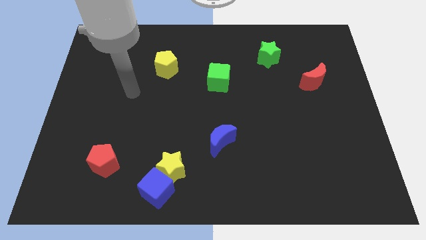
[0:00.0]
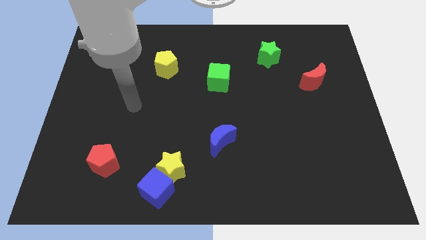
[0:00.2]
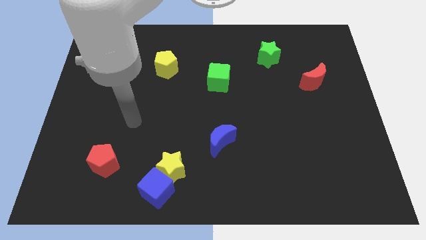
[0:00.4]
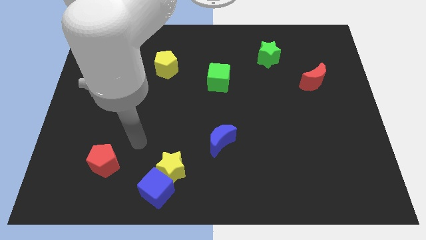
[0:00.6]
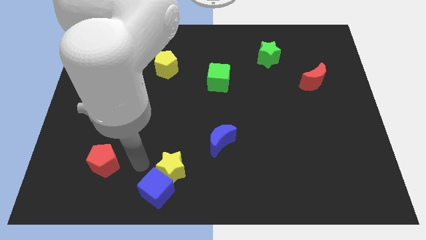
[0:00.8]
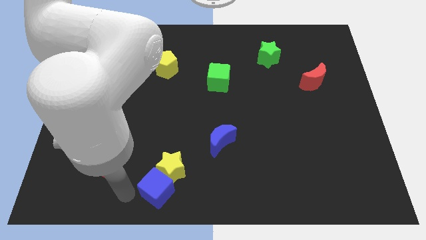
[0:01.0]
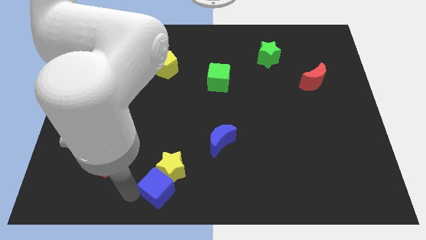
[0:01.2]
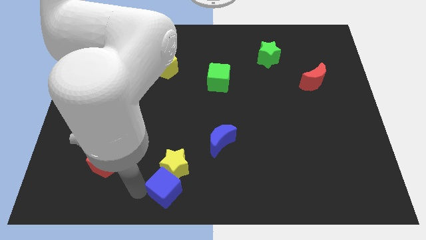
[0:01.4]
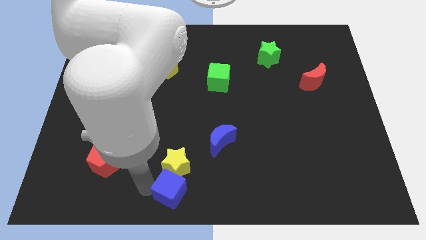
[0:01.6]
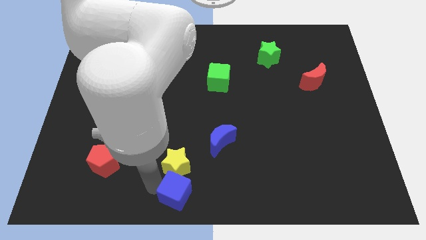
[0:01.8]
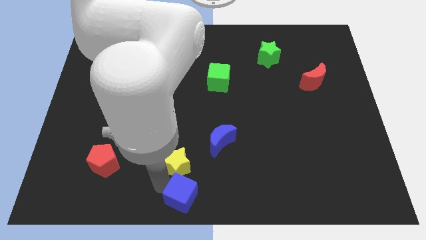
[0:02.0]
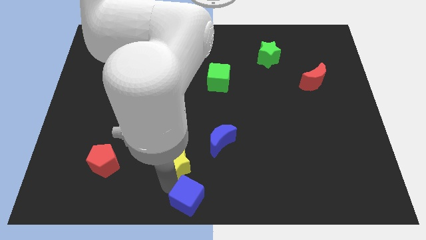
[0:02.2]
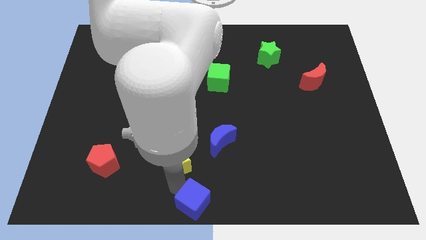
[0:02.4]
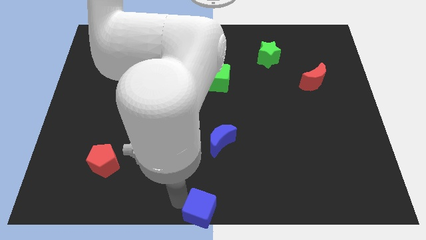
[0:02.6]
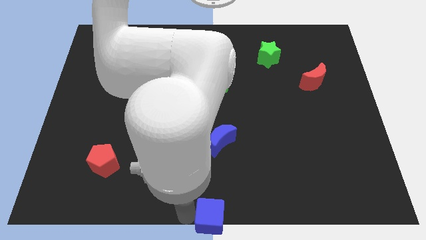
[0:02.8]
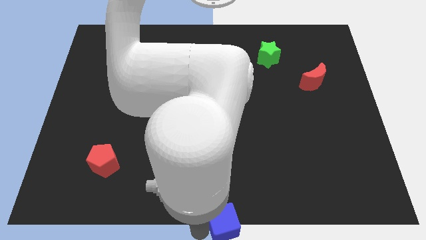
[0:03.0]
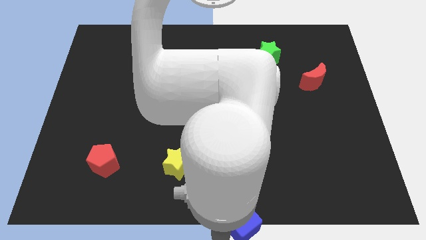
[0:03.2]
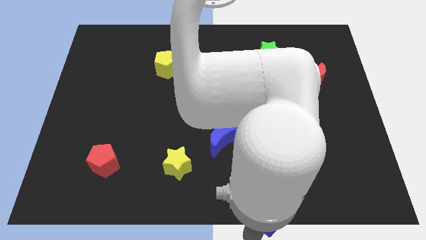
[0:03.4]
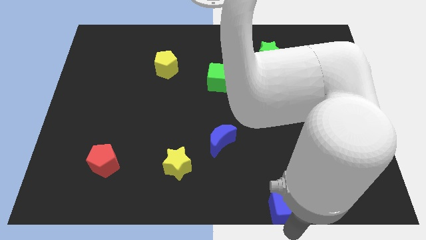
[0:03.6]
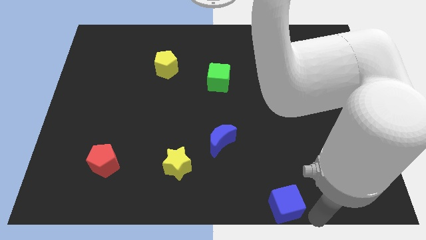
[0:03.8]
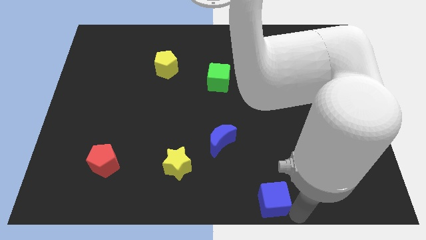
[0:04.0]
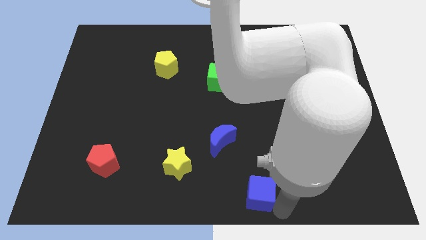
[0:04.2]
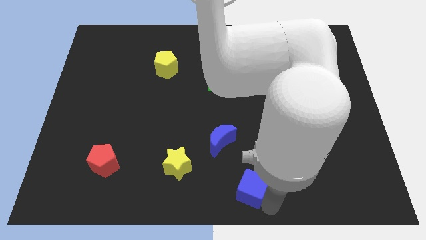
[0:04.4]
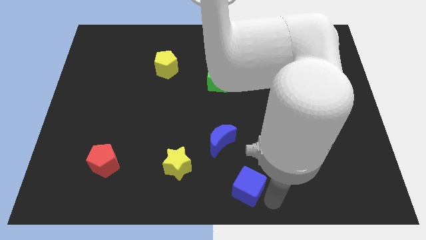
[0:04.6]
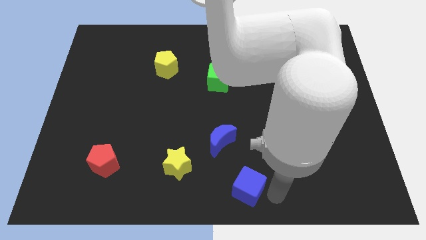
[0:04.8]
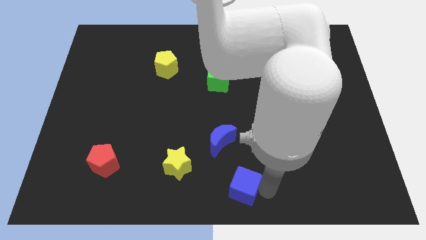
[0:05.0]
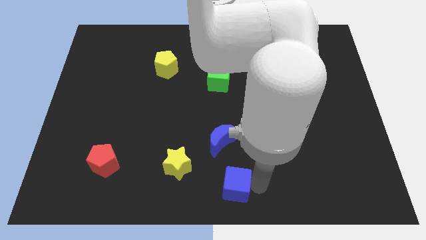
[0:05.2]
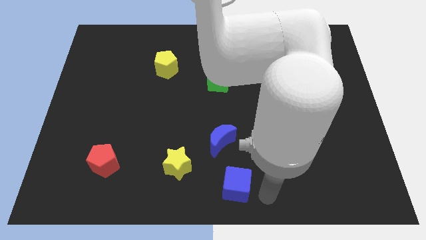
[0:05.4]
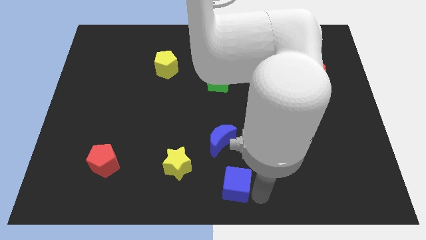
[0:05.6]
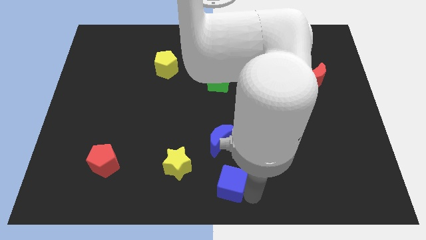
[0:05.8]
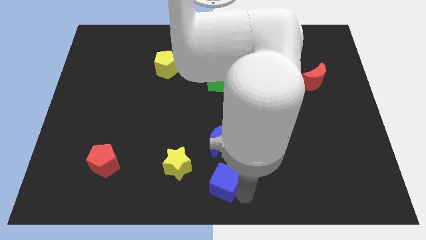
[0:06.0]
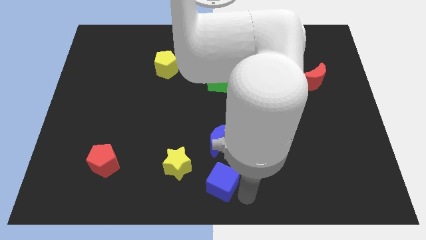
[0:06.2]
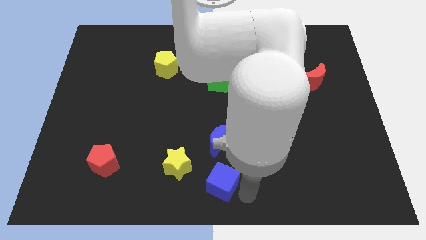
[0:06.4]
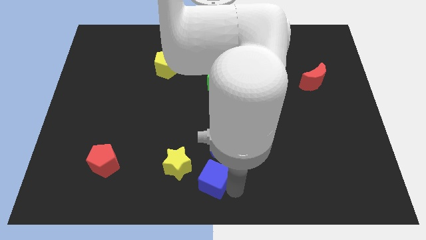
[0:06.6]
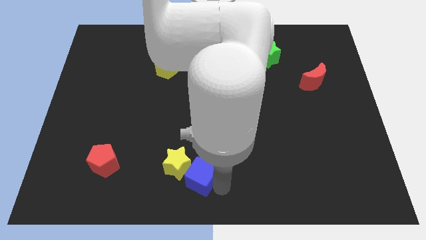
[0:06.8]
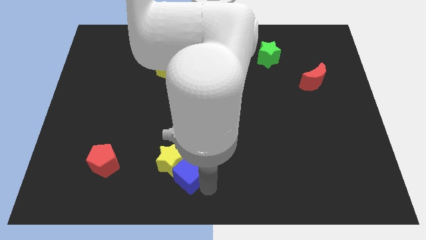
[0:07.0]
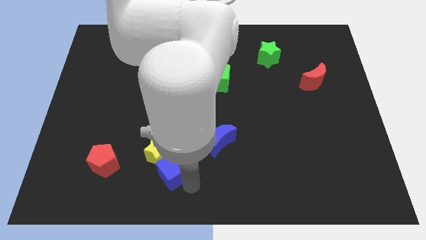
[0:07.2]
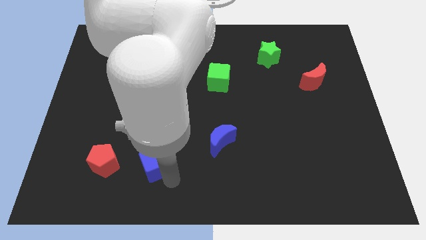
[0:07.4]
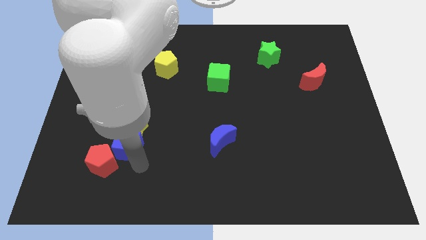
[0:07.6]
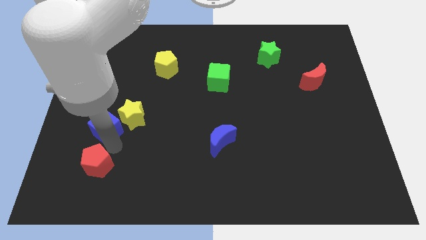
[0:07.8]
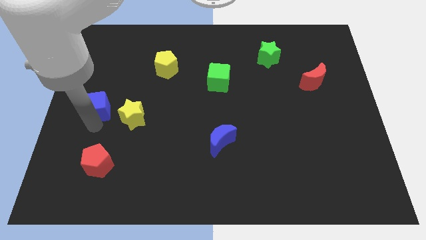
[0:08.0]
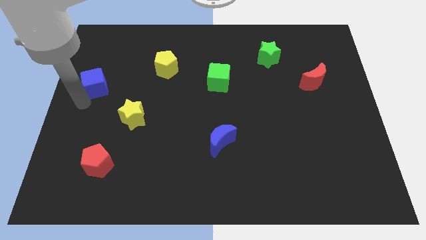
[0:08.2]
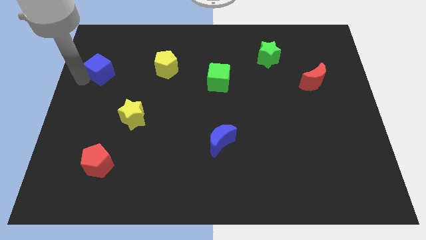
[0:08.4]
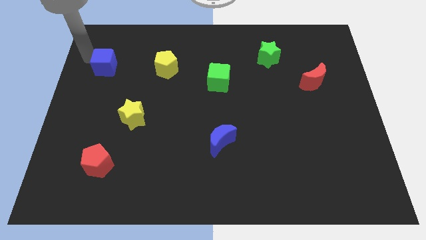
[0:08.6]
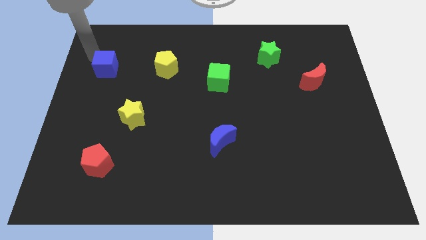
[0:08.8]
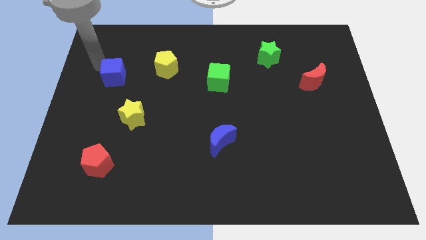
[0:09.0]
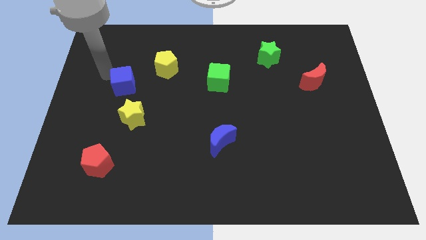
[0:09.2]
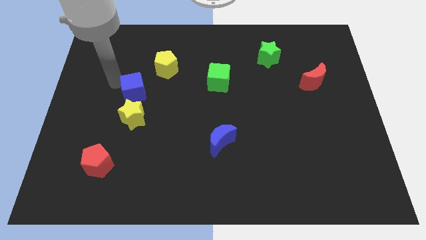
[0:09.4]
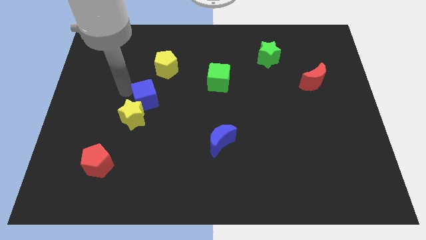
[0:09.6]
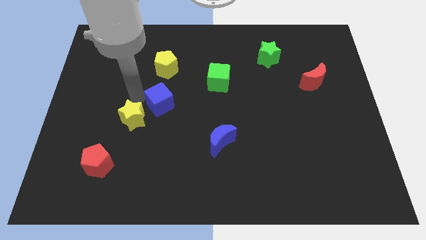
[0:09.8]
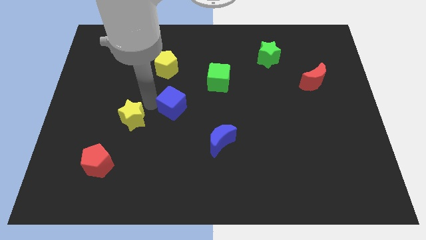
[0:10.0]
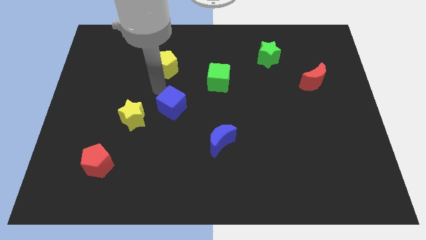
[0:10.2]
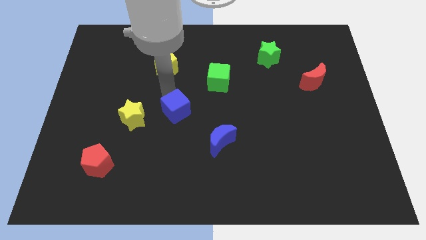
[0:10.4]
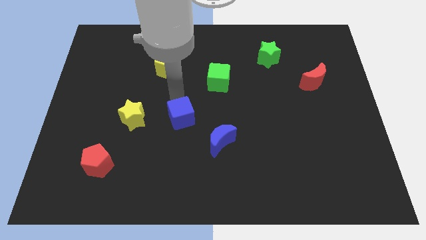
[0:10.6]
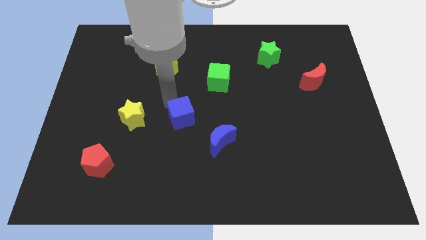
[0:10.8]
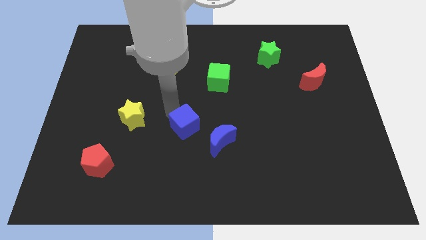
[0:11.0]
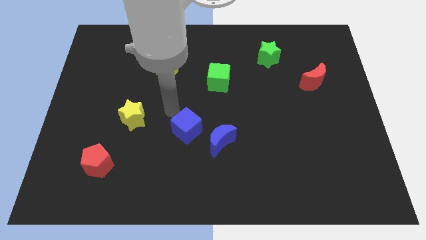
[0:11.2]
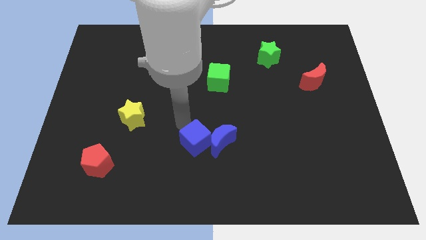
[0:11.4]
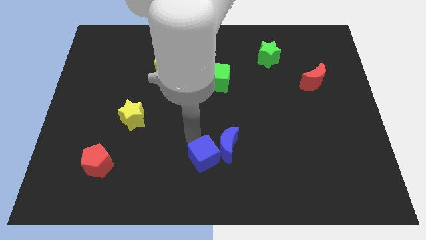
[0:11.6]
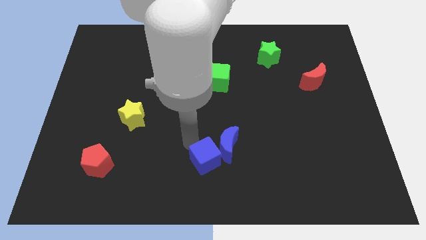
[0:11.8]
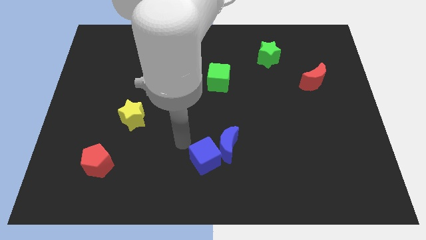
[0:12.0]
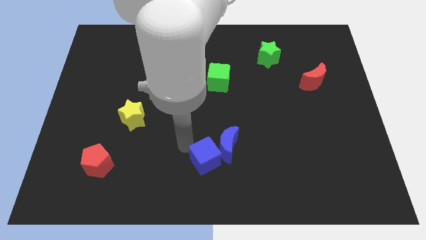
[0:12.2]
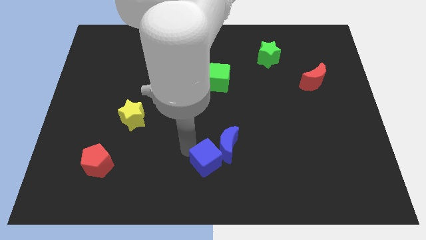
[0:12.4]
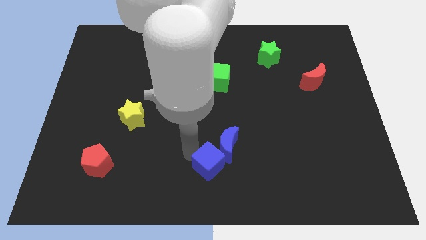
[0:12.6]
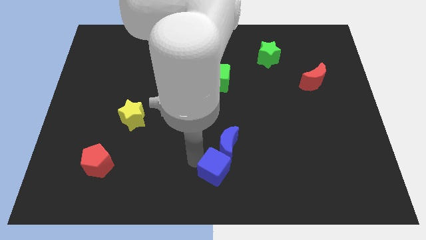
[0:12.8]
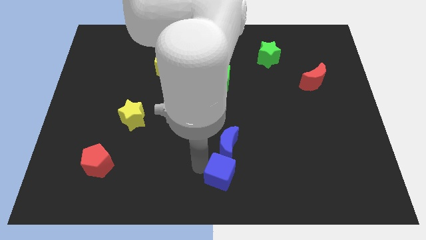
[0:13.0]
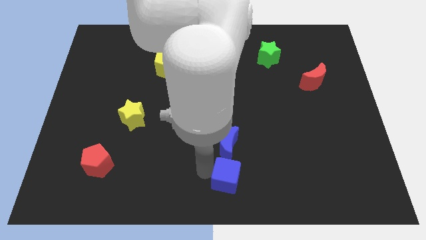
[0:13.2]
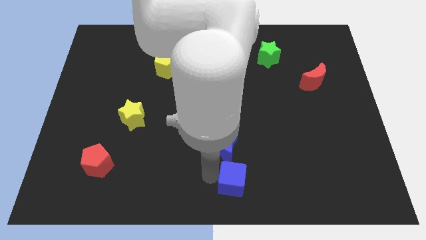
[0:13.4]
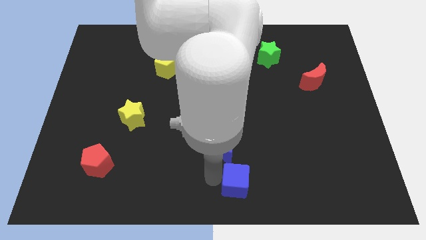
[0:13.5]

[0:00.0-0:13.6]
move the blue cube to the bottom right of the blue moon
